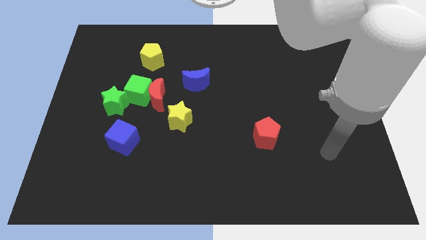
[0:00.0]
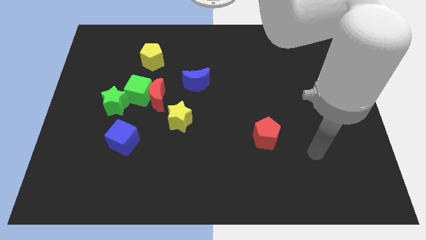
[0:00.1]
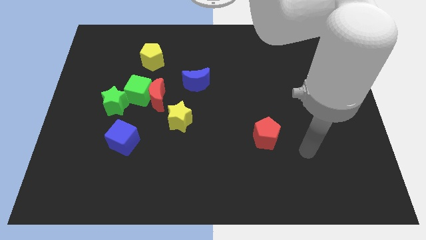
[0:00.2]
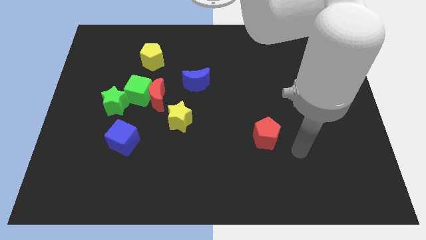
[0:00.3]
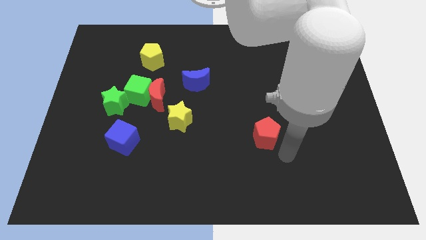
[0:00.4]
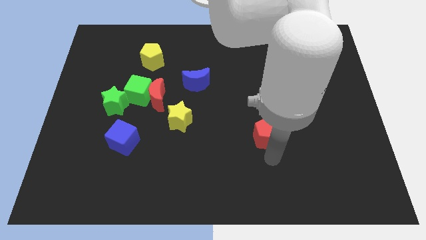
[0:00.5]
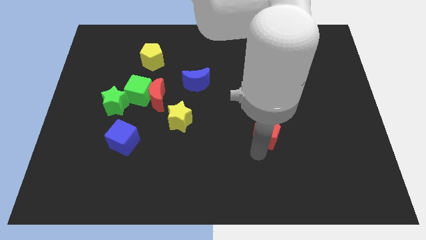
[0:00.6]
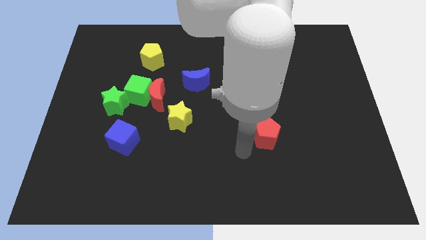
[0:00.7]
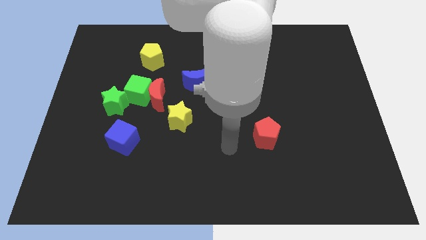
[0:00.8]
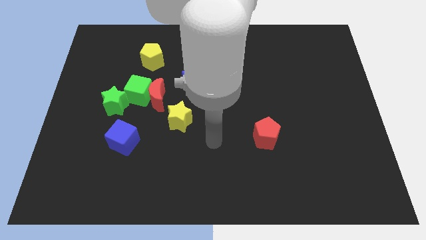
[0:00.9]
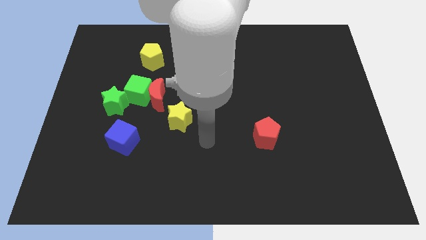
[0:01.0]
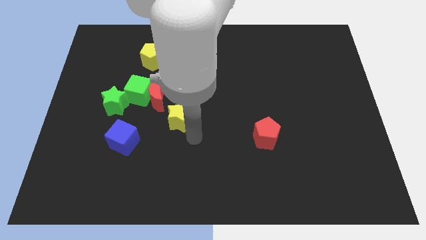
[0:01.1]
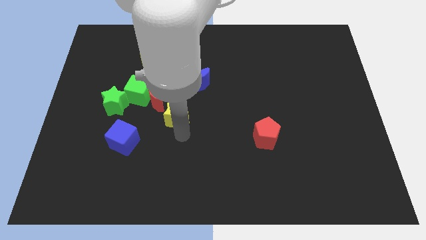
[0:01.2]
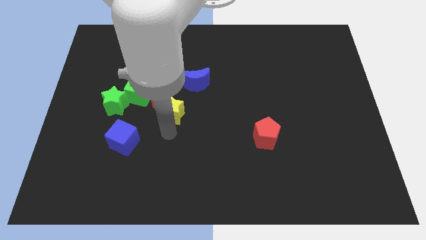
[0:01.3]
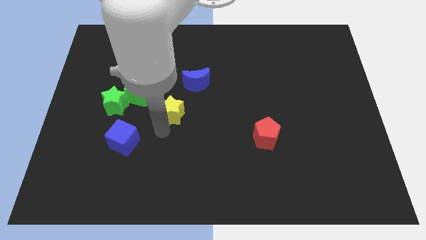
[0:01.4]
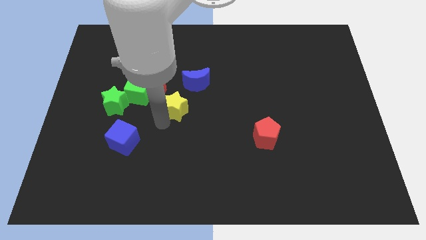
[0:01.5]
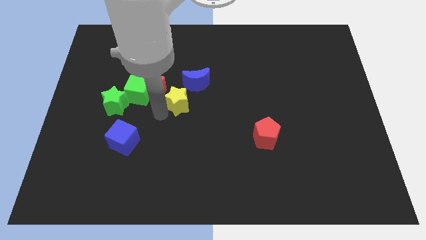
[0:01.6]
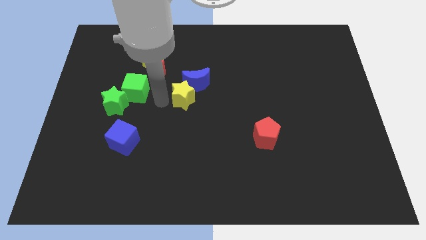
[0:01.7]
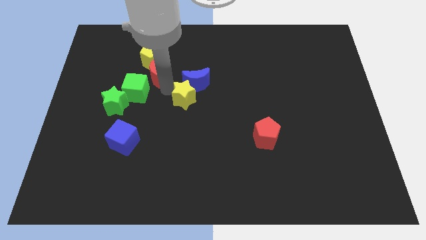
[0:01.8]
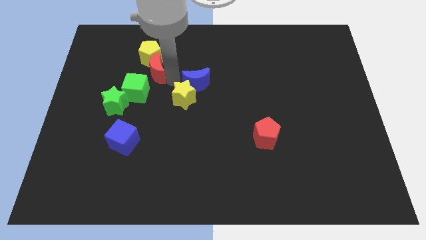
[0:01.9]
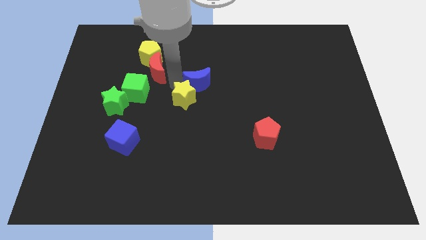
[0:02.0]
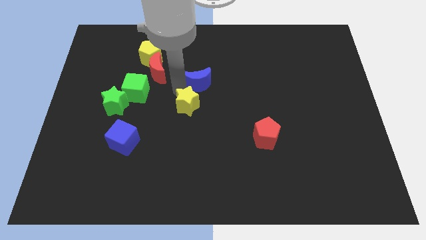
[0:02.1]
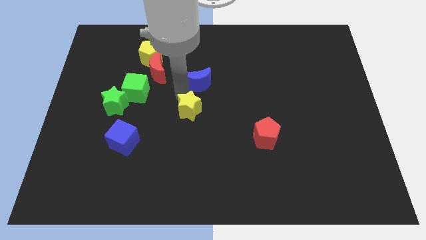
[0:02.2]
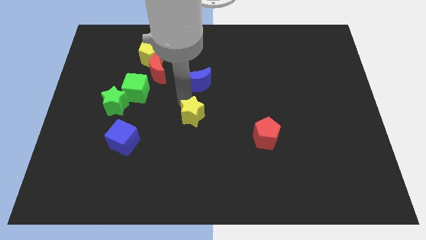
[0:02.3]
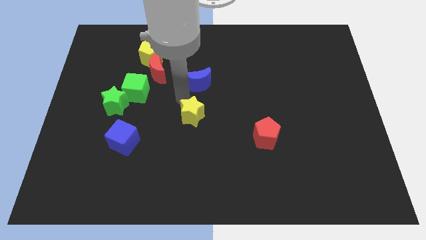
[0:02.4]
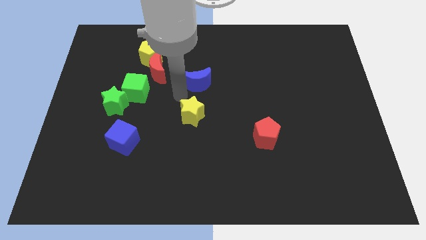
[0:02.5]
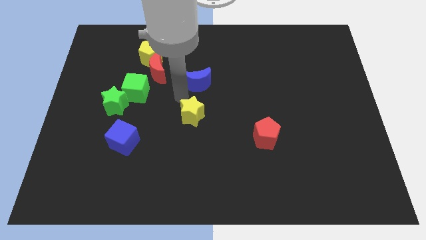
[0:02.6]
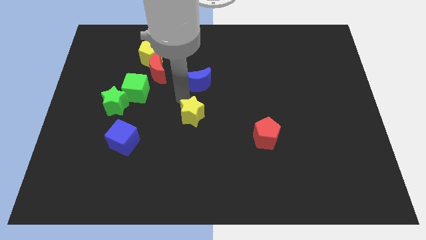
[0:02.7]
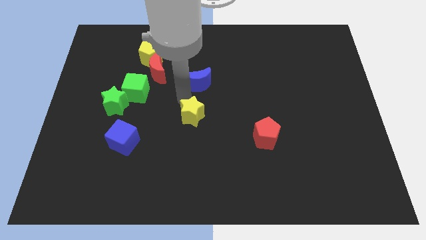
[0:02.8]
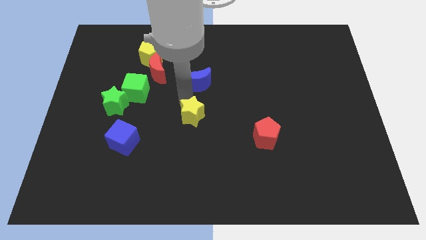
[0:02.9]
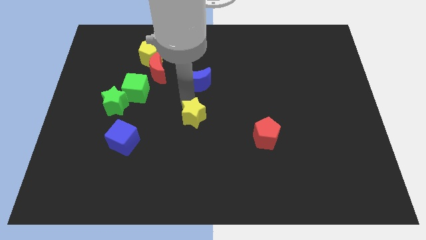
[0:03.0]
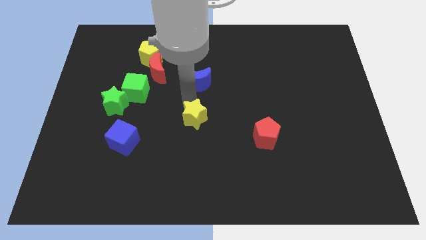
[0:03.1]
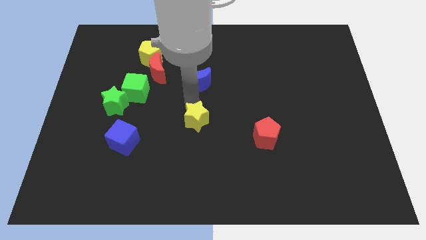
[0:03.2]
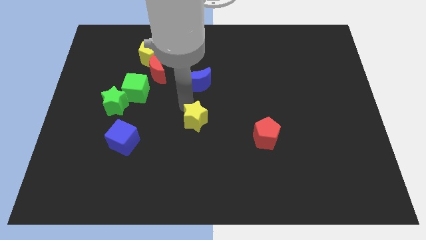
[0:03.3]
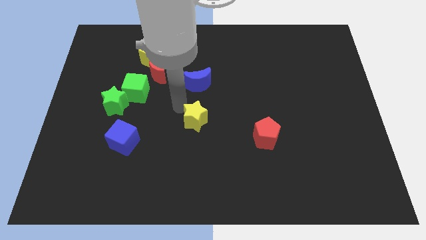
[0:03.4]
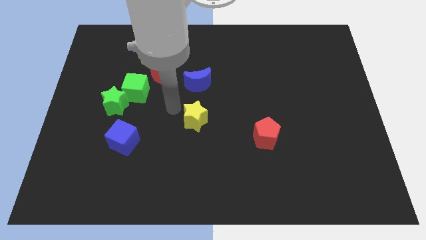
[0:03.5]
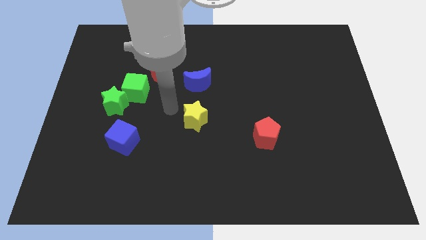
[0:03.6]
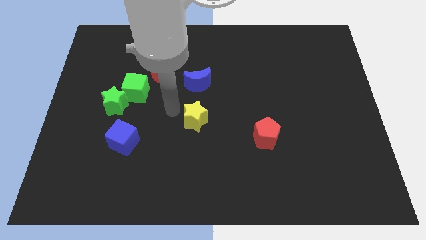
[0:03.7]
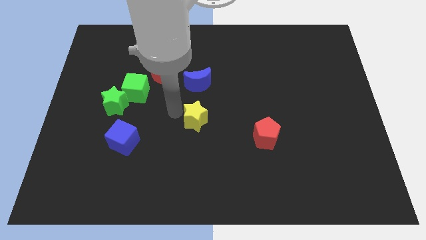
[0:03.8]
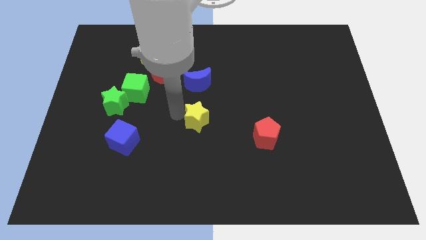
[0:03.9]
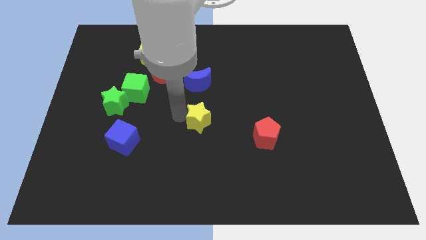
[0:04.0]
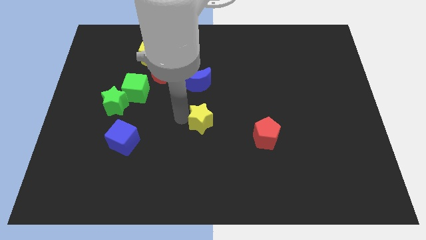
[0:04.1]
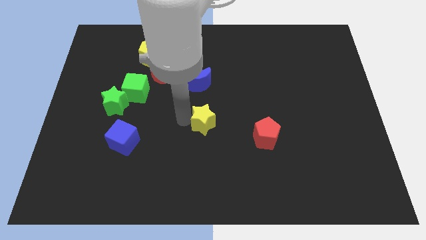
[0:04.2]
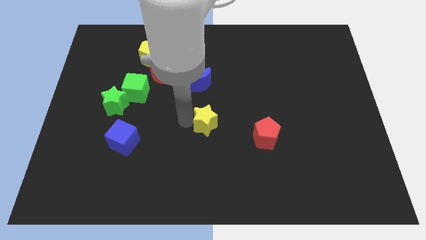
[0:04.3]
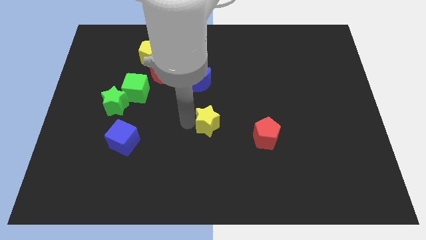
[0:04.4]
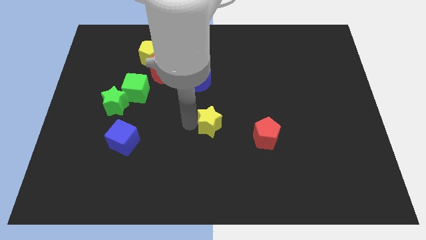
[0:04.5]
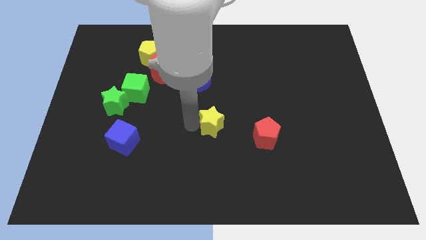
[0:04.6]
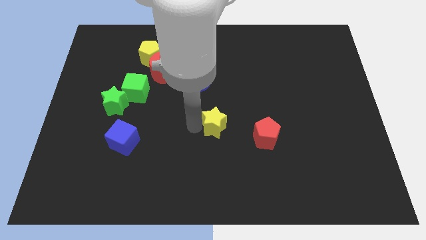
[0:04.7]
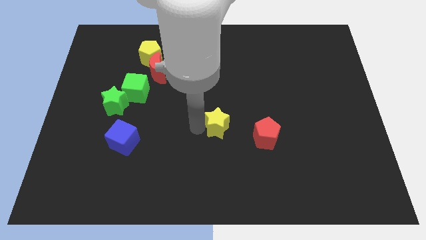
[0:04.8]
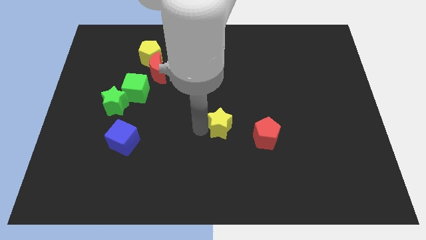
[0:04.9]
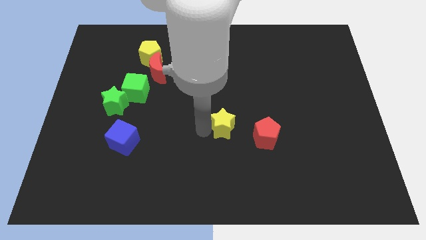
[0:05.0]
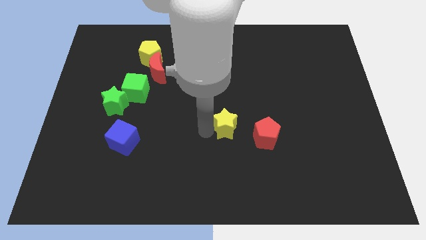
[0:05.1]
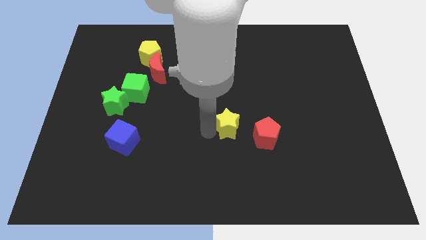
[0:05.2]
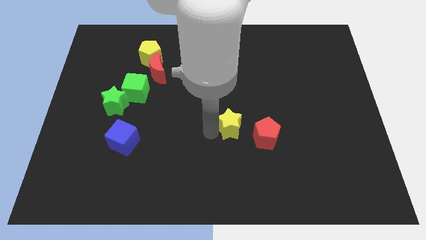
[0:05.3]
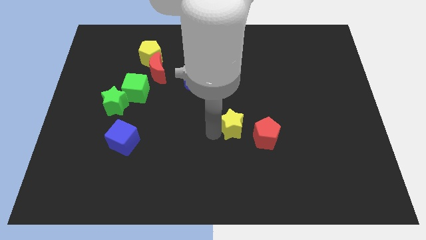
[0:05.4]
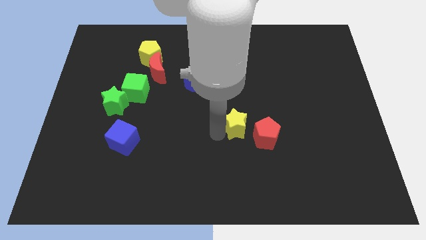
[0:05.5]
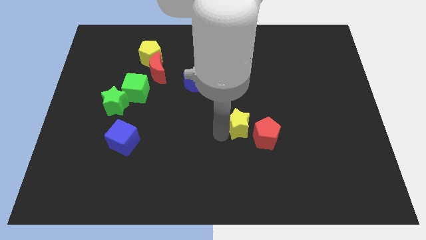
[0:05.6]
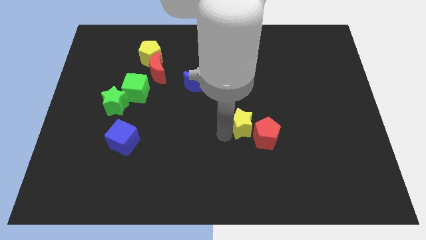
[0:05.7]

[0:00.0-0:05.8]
slide the yellow star close to the red pentagon
